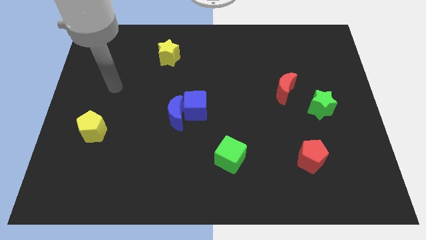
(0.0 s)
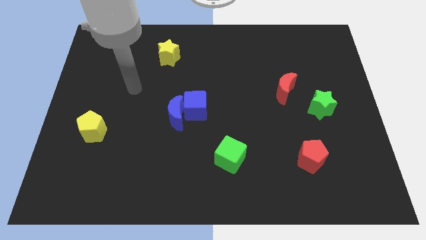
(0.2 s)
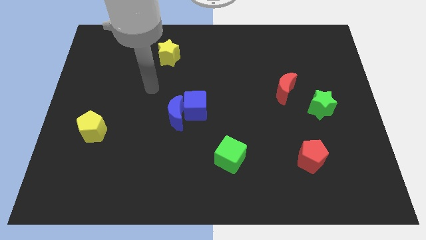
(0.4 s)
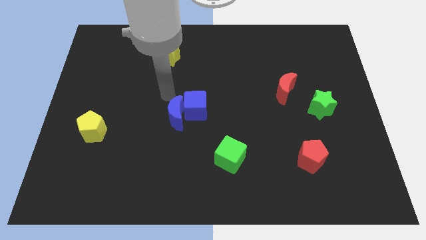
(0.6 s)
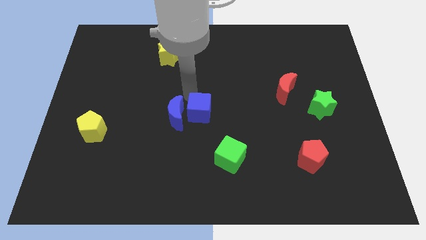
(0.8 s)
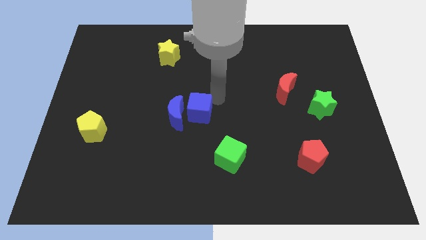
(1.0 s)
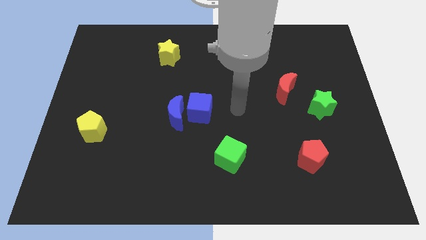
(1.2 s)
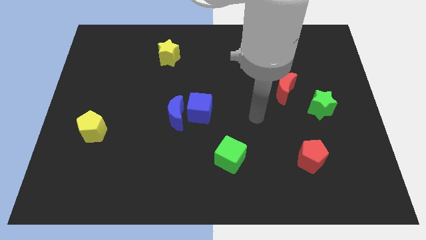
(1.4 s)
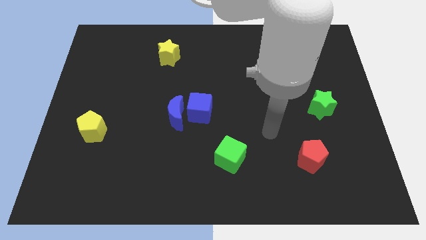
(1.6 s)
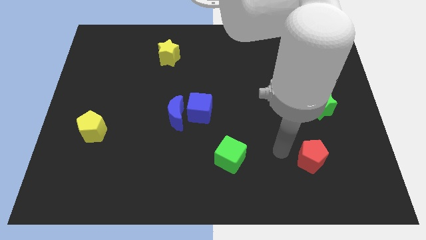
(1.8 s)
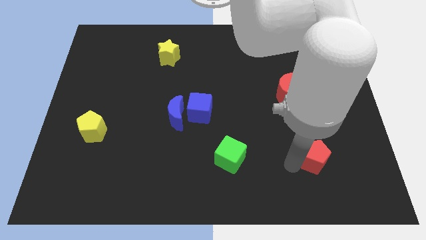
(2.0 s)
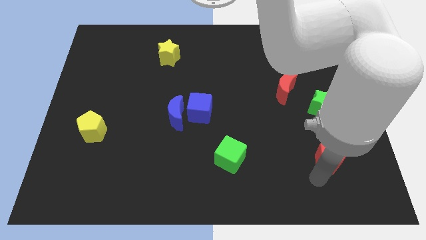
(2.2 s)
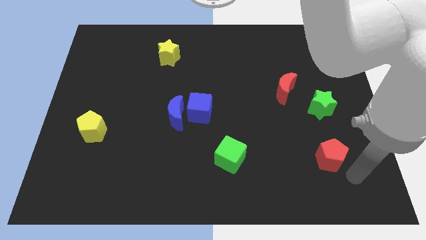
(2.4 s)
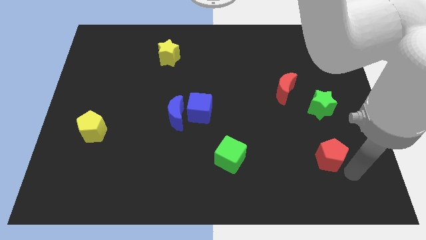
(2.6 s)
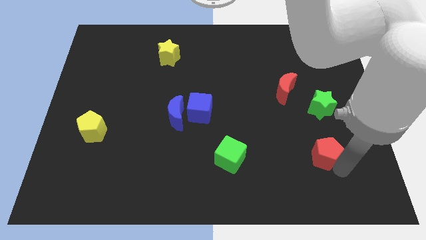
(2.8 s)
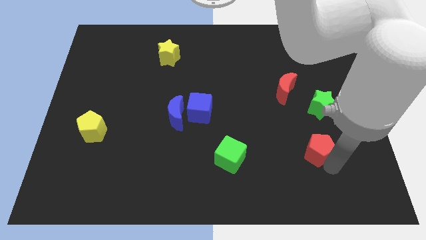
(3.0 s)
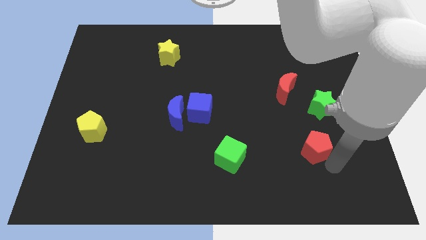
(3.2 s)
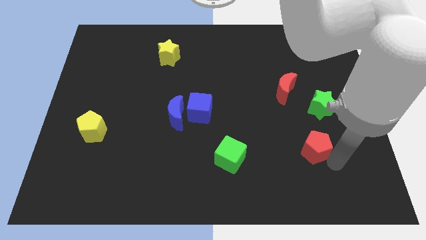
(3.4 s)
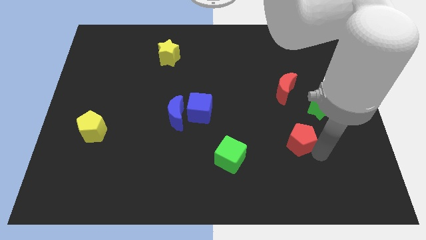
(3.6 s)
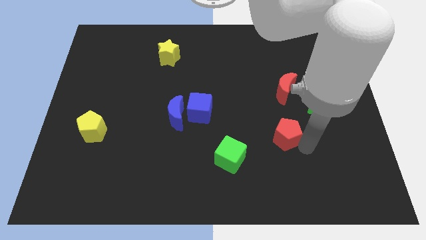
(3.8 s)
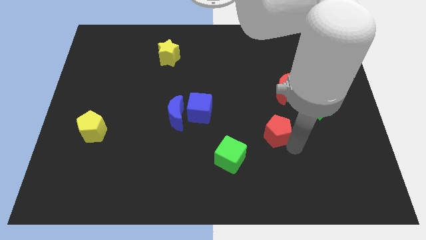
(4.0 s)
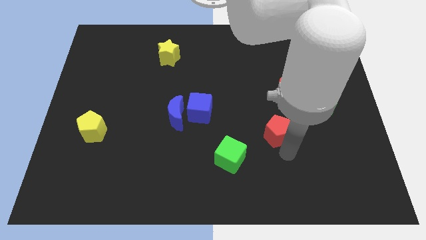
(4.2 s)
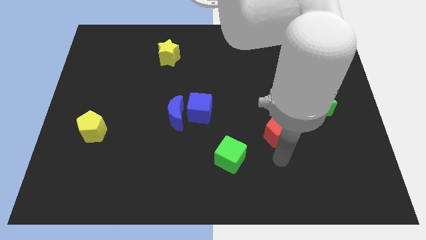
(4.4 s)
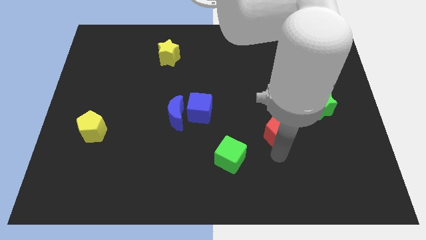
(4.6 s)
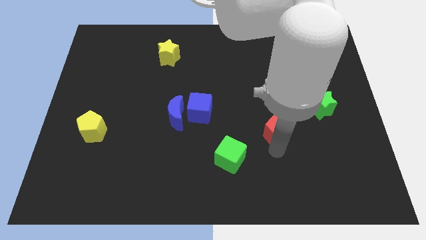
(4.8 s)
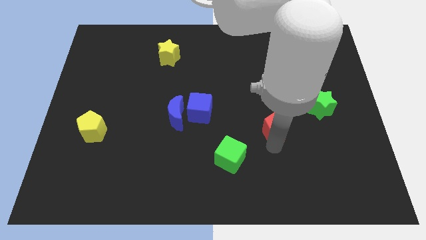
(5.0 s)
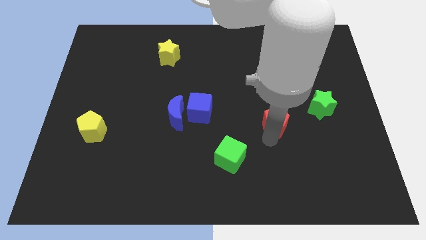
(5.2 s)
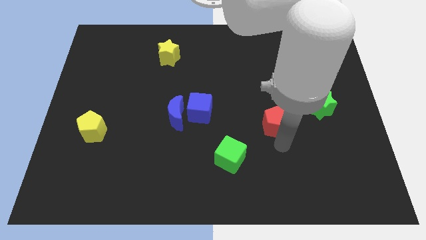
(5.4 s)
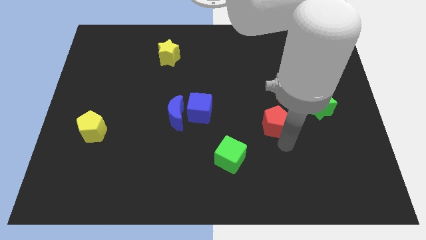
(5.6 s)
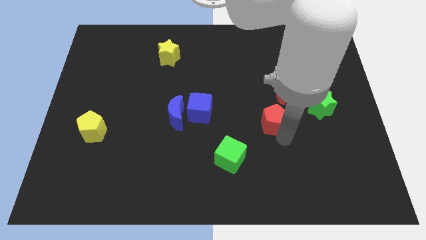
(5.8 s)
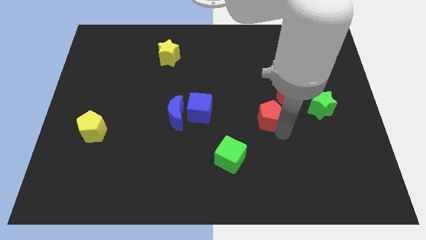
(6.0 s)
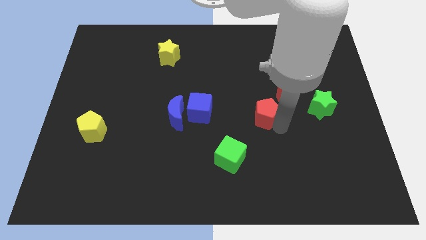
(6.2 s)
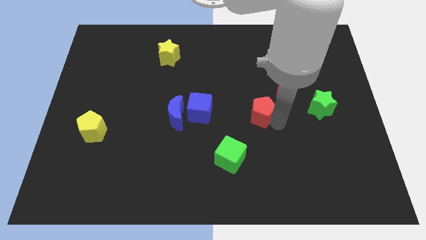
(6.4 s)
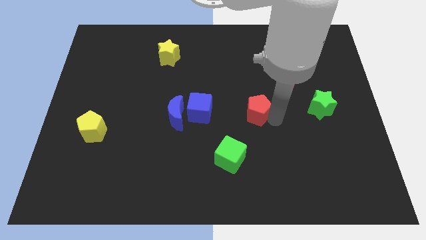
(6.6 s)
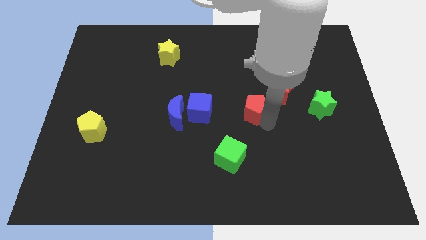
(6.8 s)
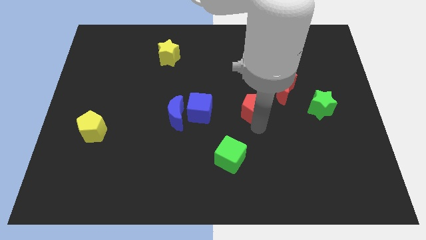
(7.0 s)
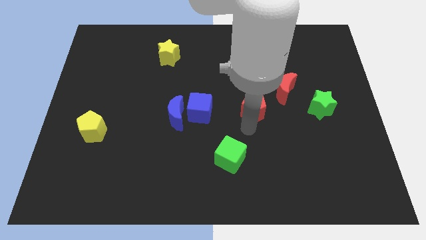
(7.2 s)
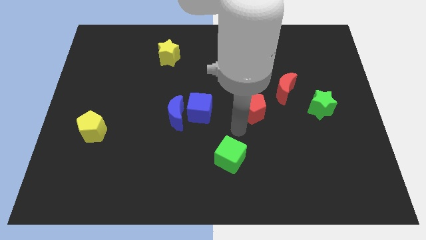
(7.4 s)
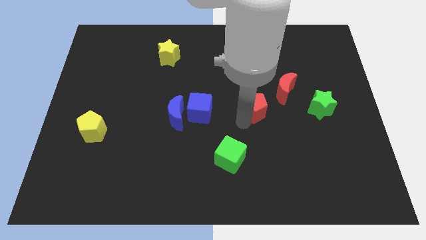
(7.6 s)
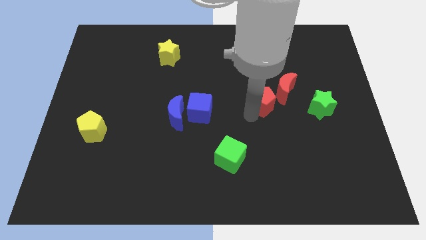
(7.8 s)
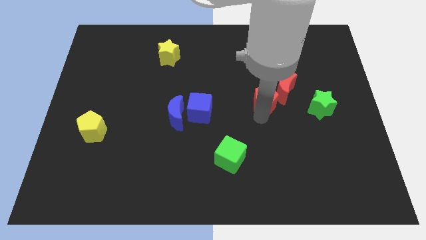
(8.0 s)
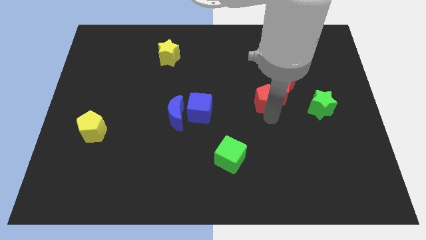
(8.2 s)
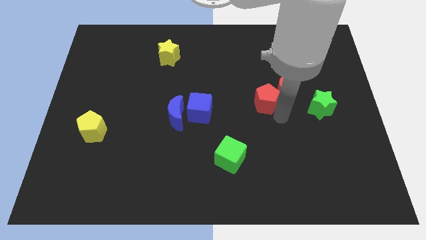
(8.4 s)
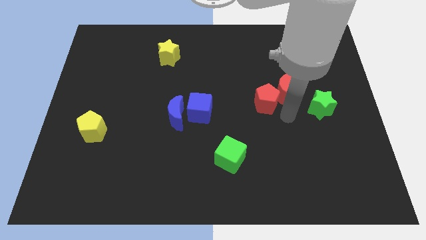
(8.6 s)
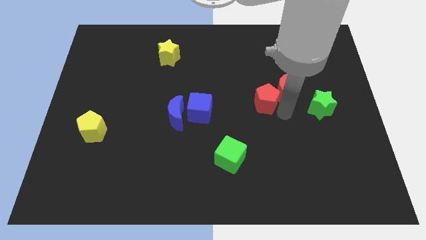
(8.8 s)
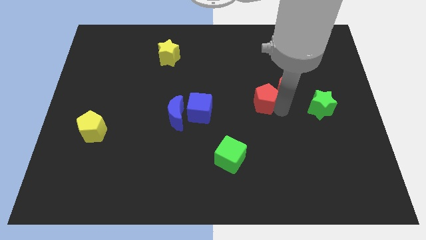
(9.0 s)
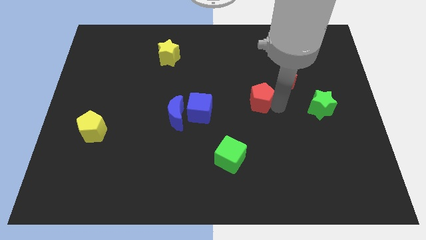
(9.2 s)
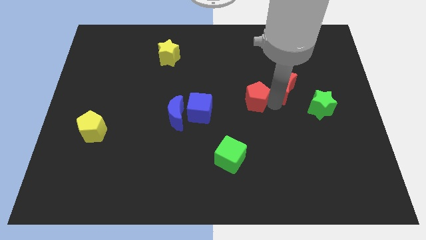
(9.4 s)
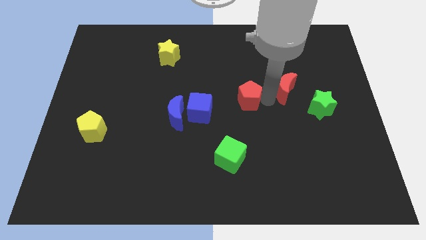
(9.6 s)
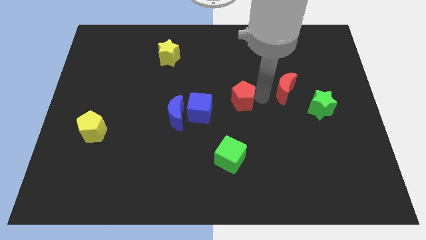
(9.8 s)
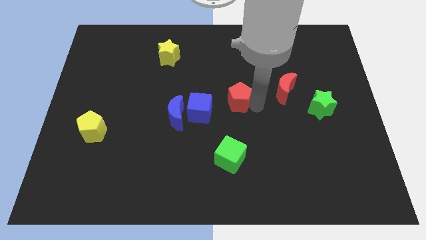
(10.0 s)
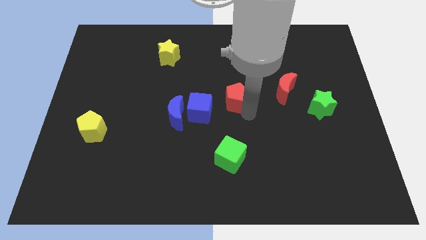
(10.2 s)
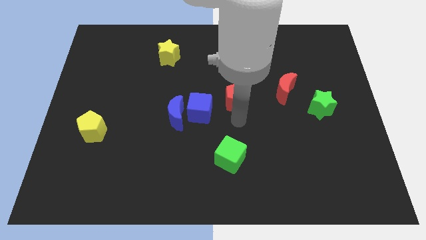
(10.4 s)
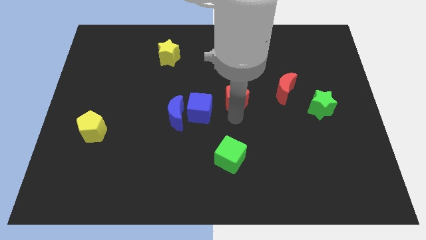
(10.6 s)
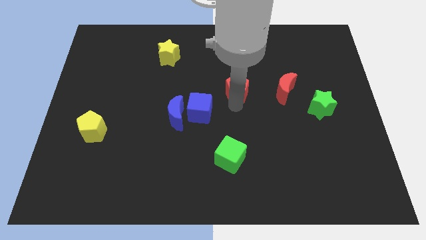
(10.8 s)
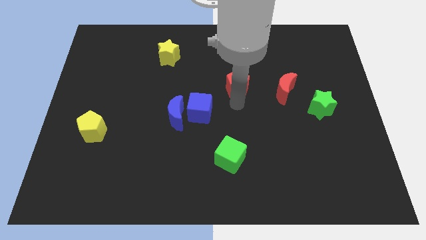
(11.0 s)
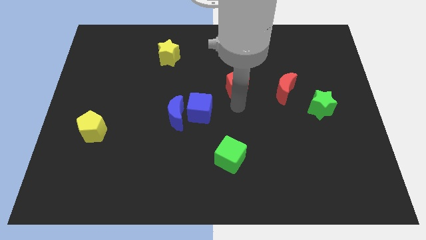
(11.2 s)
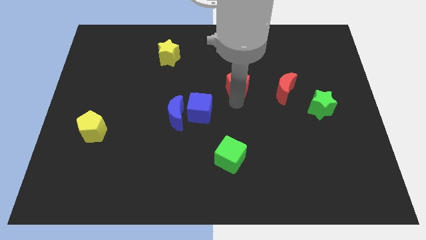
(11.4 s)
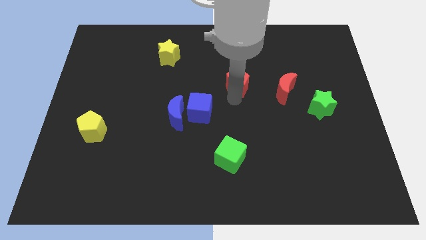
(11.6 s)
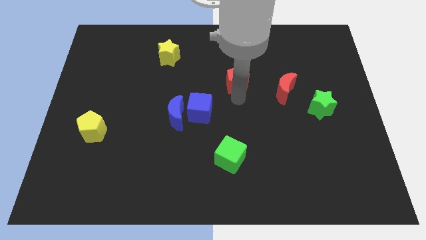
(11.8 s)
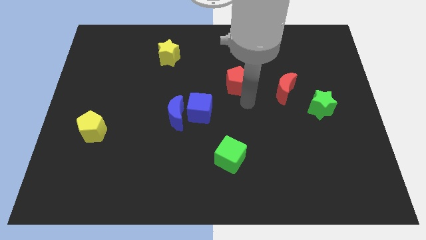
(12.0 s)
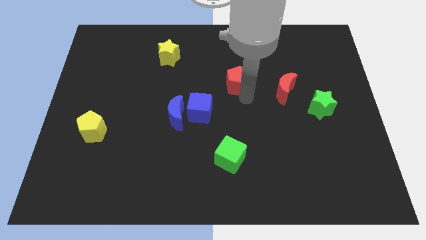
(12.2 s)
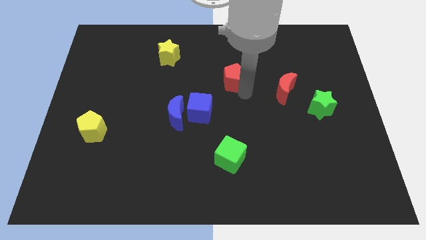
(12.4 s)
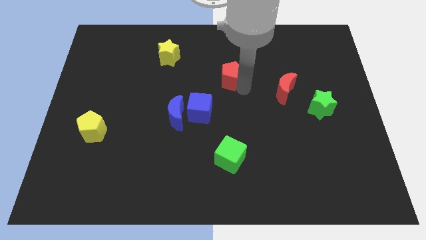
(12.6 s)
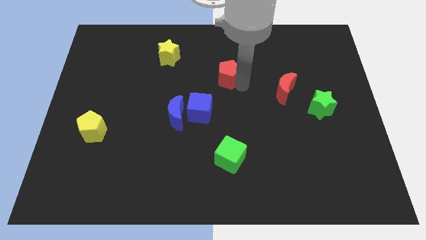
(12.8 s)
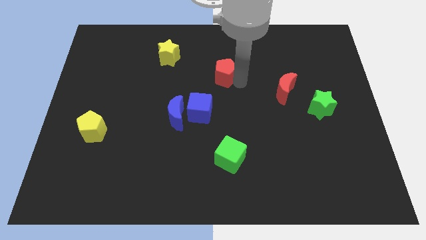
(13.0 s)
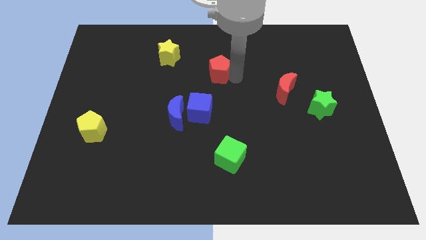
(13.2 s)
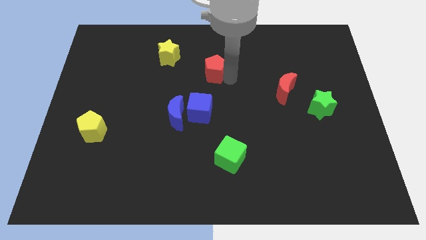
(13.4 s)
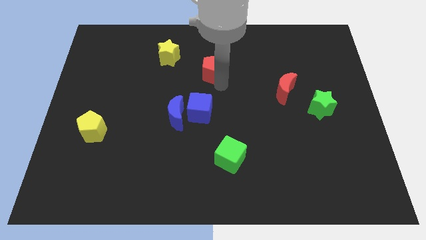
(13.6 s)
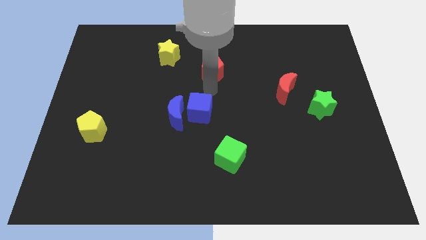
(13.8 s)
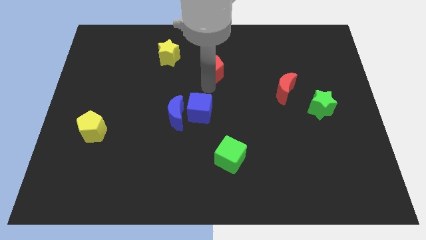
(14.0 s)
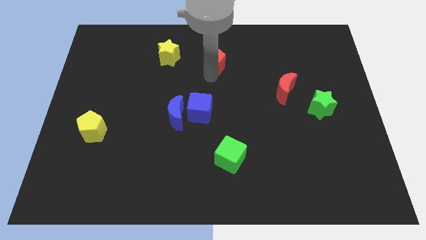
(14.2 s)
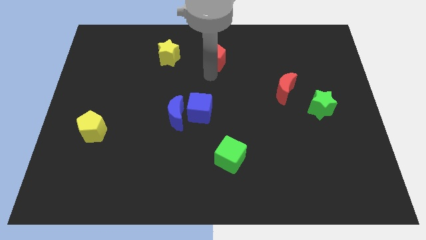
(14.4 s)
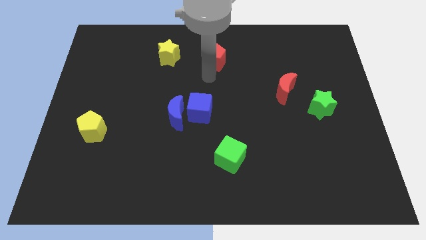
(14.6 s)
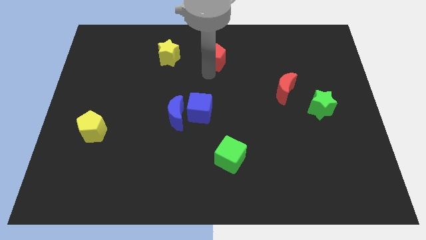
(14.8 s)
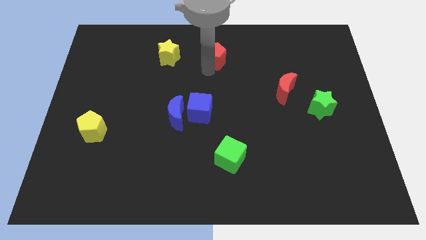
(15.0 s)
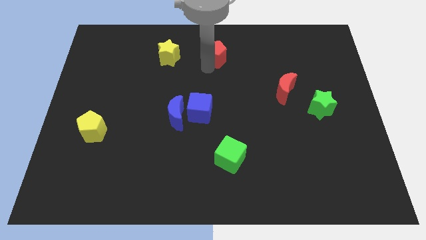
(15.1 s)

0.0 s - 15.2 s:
move the red pentagon to the towards your base
